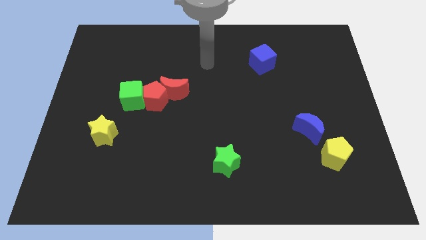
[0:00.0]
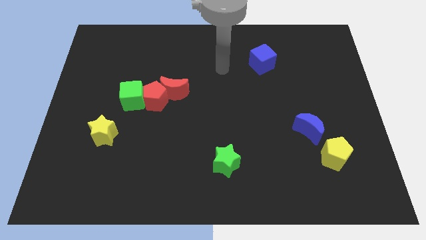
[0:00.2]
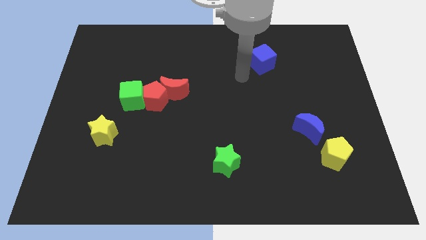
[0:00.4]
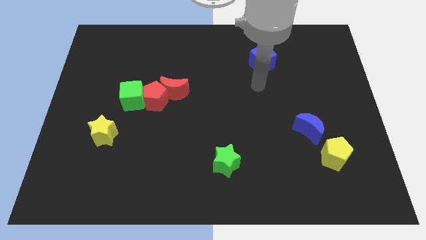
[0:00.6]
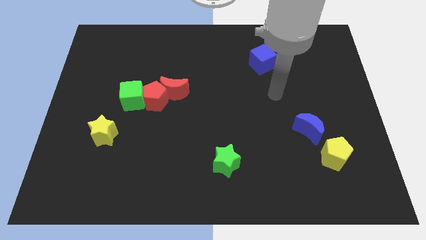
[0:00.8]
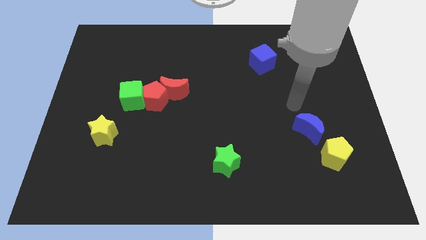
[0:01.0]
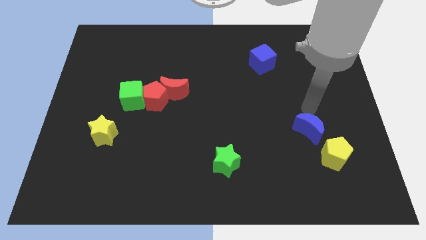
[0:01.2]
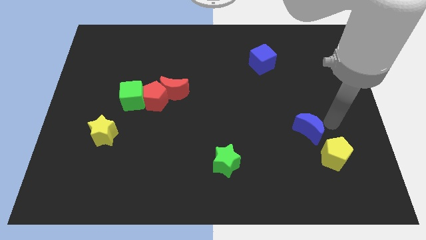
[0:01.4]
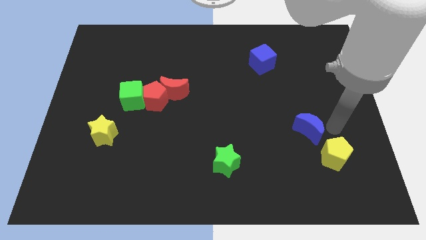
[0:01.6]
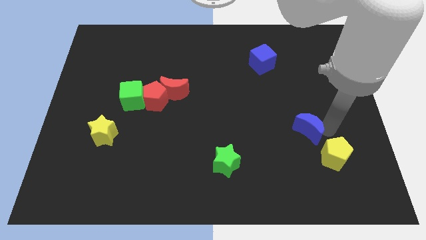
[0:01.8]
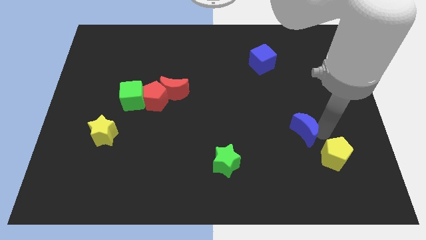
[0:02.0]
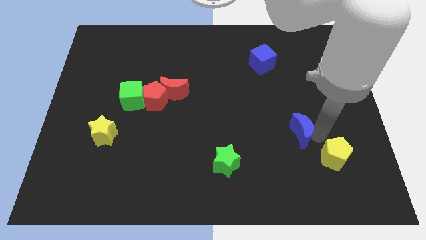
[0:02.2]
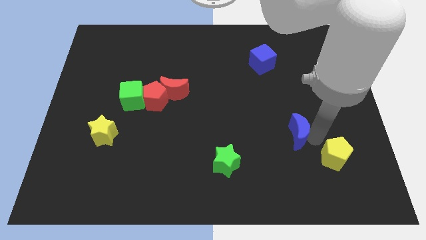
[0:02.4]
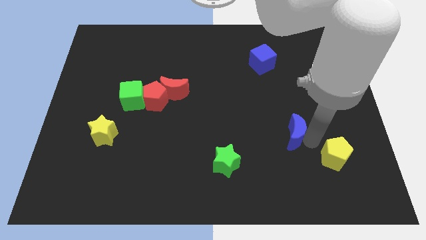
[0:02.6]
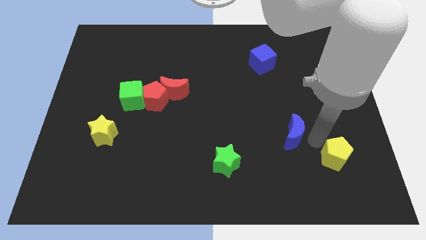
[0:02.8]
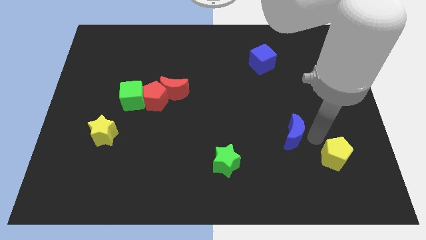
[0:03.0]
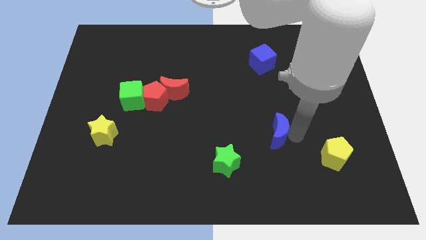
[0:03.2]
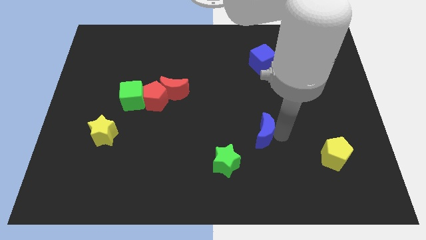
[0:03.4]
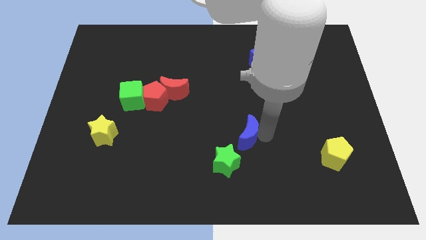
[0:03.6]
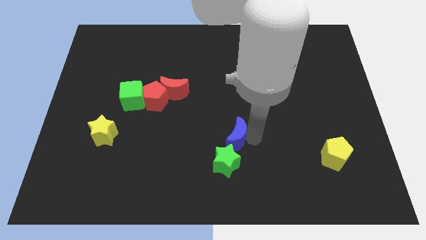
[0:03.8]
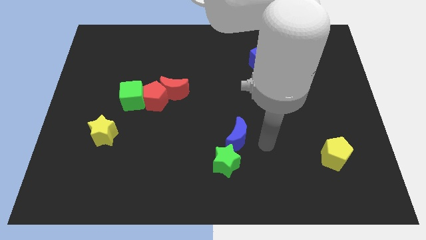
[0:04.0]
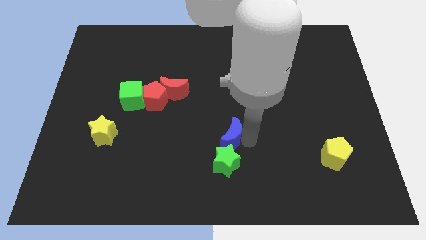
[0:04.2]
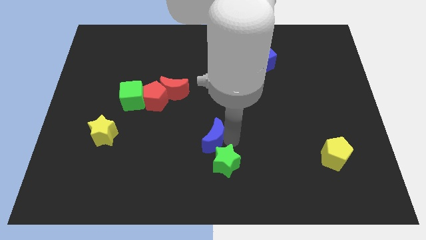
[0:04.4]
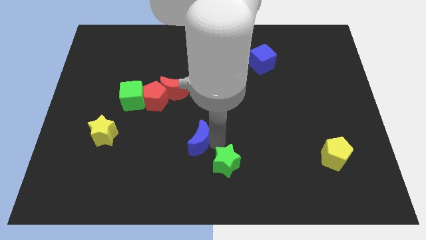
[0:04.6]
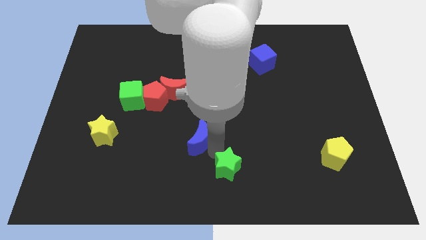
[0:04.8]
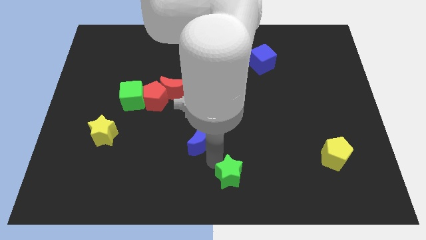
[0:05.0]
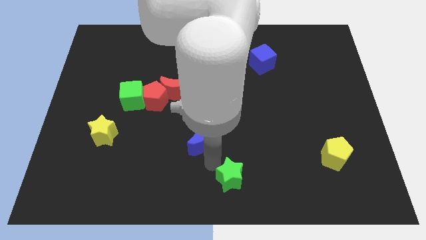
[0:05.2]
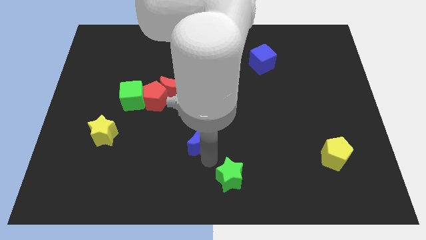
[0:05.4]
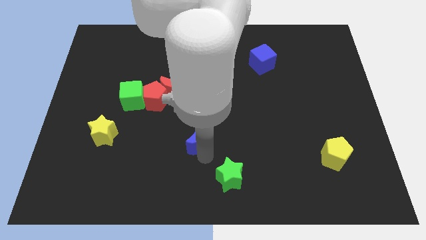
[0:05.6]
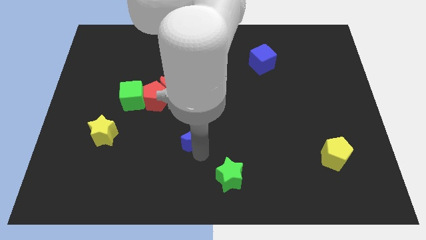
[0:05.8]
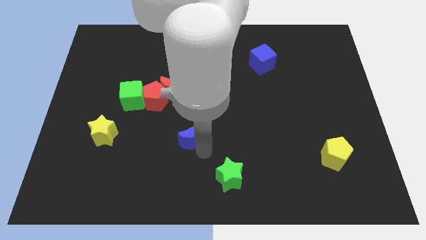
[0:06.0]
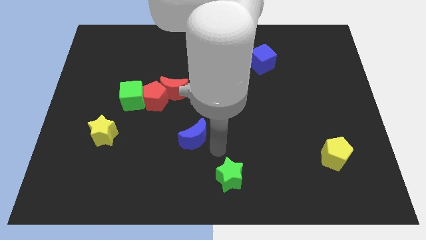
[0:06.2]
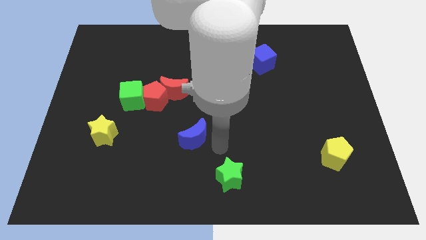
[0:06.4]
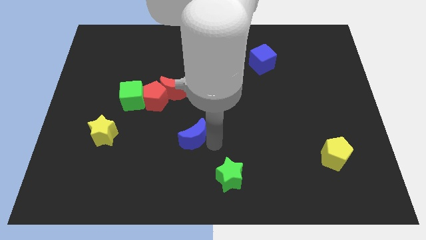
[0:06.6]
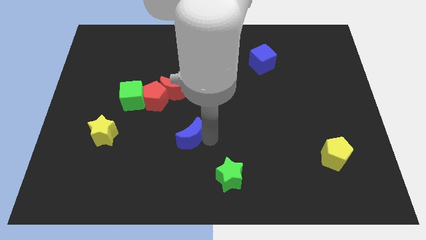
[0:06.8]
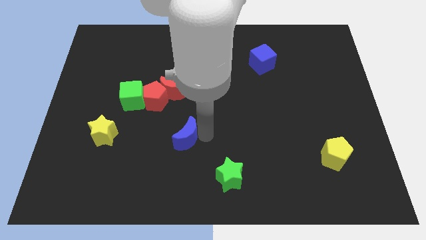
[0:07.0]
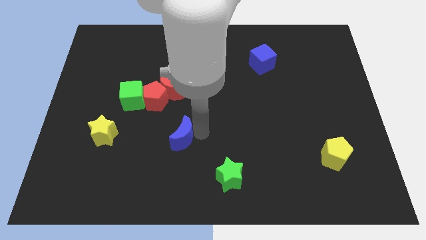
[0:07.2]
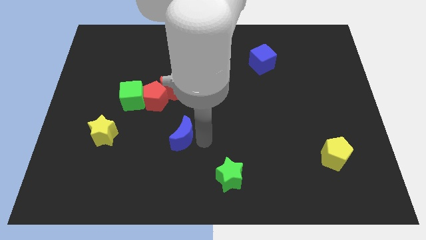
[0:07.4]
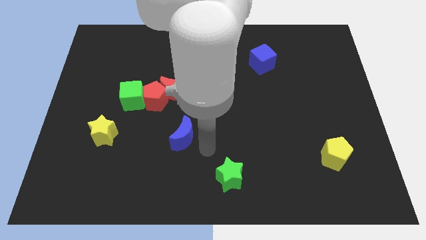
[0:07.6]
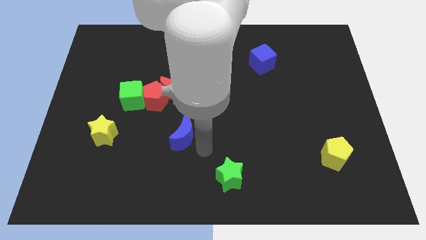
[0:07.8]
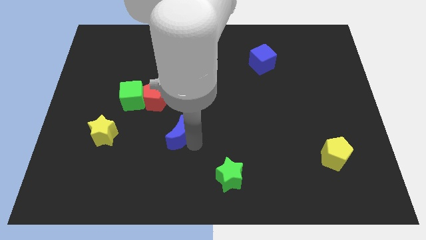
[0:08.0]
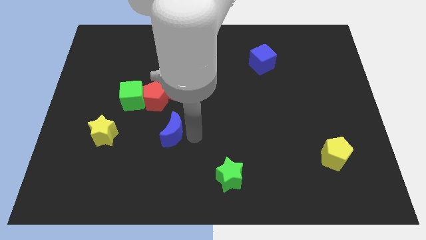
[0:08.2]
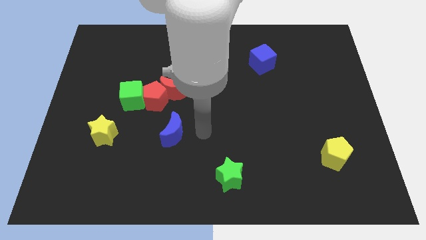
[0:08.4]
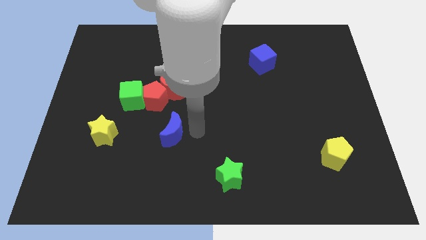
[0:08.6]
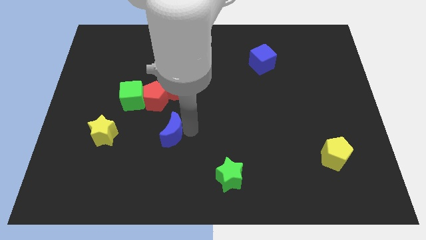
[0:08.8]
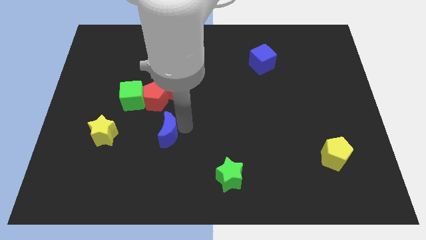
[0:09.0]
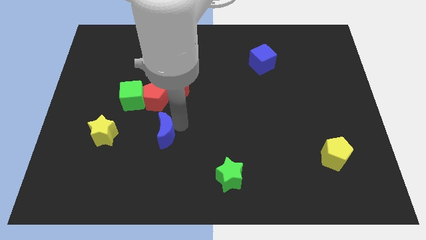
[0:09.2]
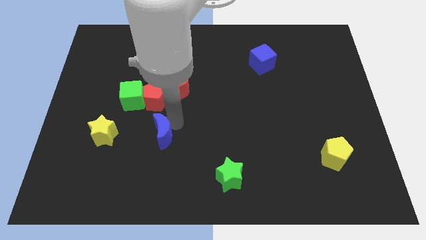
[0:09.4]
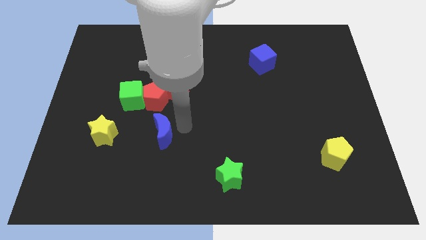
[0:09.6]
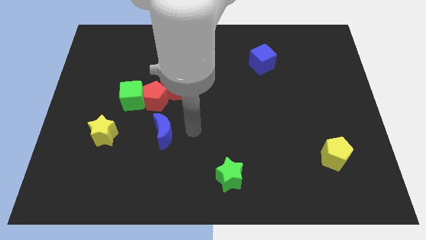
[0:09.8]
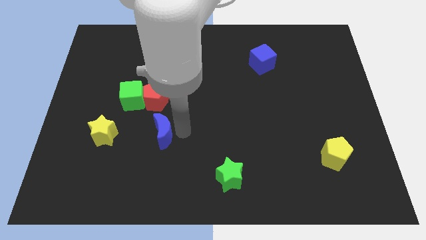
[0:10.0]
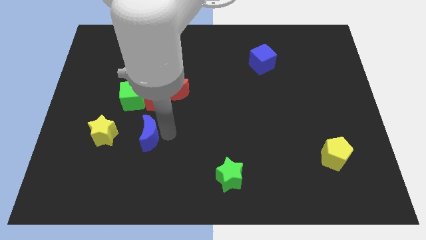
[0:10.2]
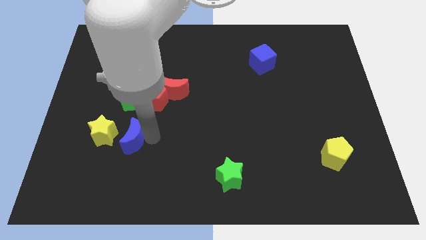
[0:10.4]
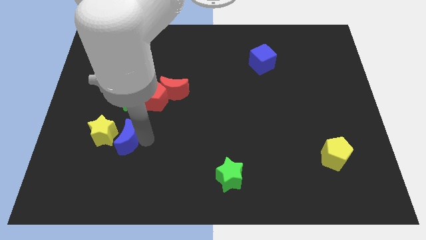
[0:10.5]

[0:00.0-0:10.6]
push the blue moon to the yellow star

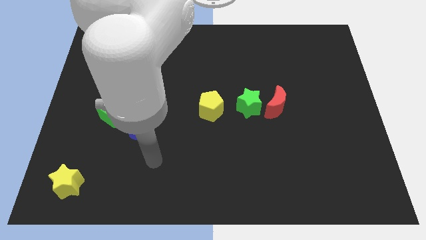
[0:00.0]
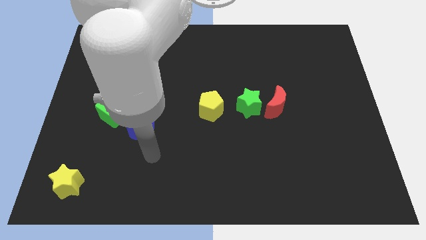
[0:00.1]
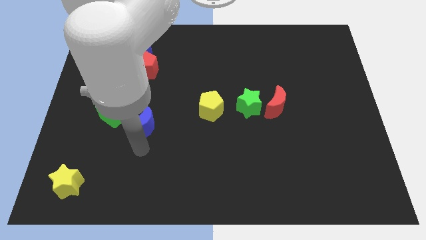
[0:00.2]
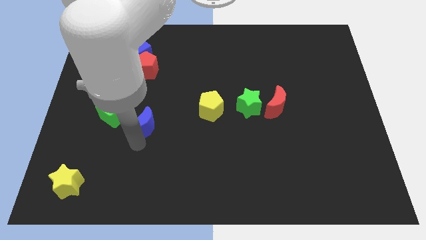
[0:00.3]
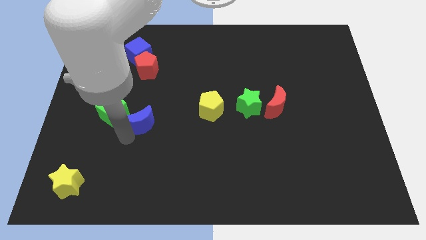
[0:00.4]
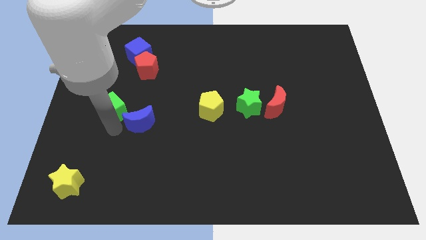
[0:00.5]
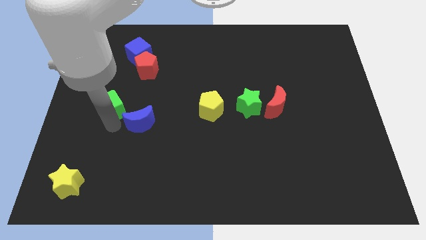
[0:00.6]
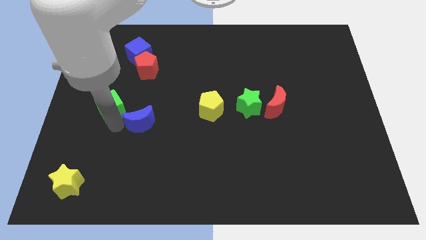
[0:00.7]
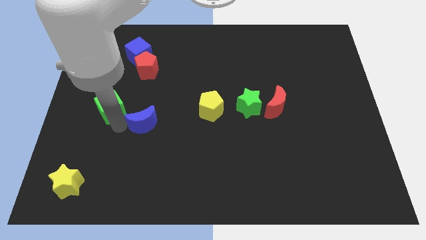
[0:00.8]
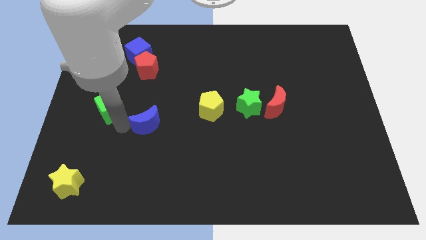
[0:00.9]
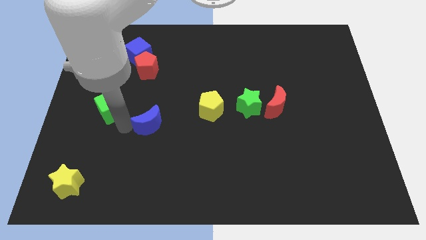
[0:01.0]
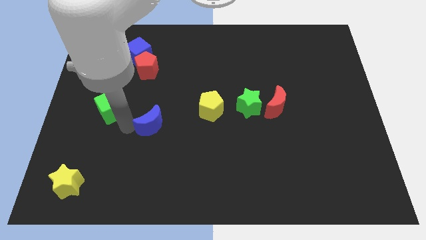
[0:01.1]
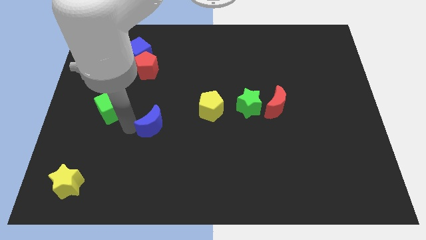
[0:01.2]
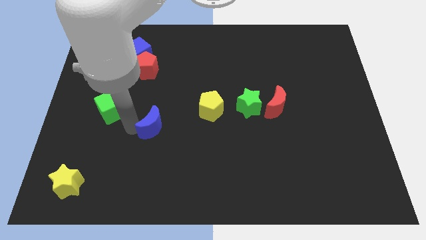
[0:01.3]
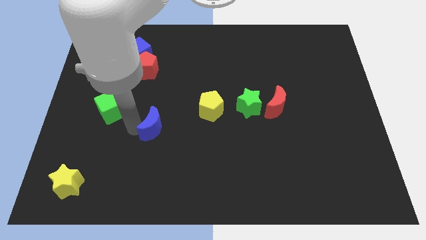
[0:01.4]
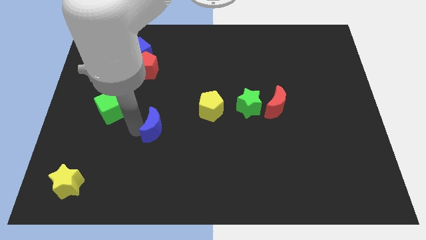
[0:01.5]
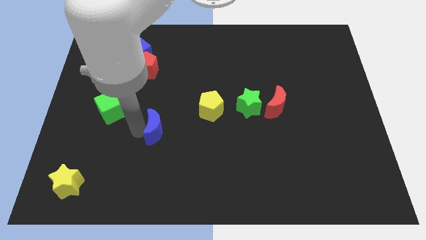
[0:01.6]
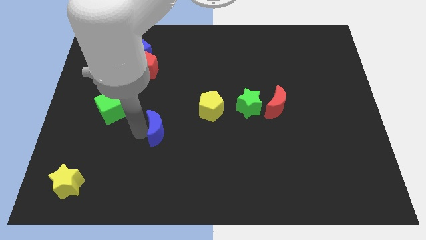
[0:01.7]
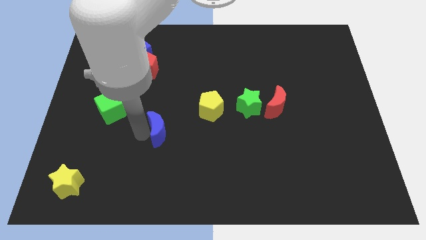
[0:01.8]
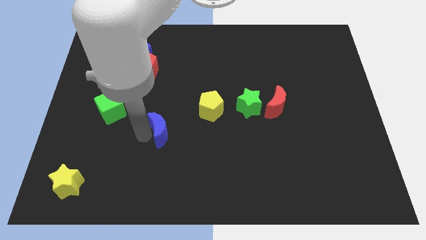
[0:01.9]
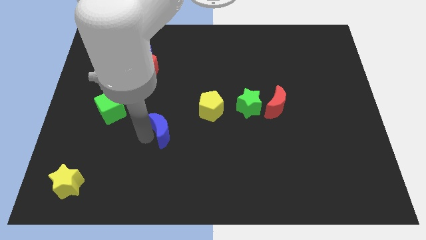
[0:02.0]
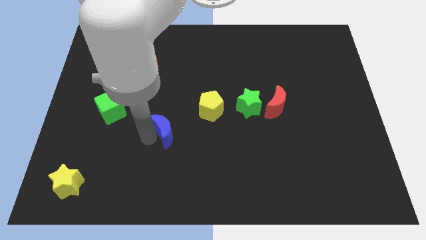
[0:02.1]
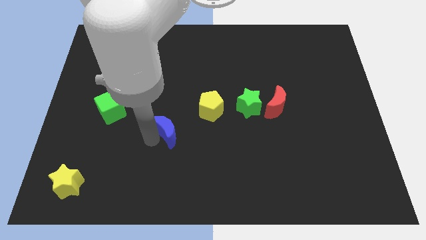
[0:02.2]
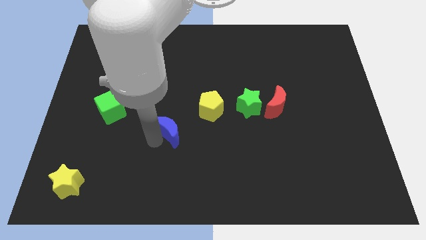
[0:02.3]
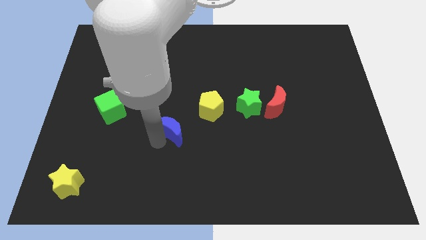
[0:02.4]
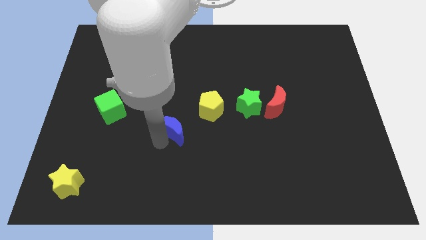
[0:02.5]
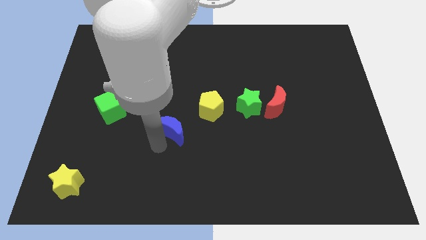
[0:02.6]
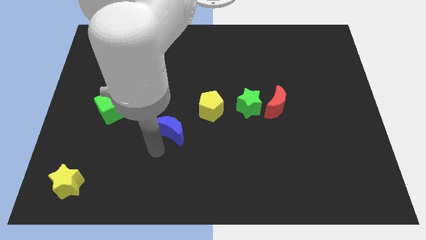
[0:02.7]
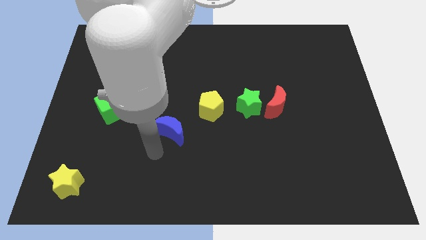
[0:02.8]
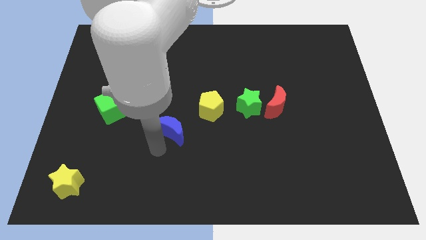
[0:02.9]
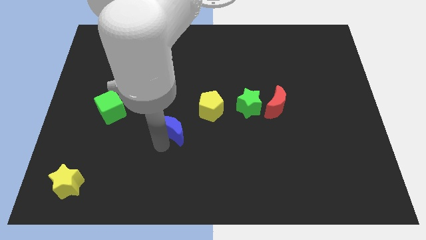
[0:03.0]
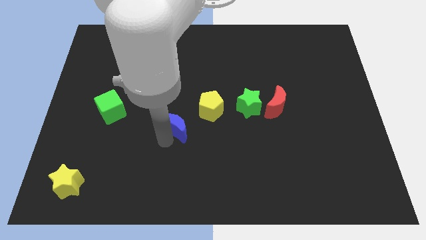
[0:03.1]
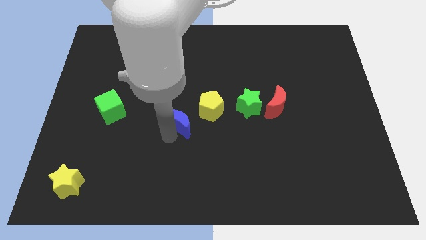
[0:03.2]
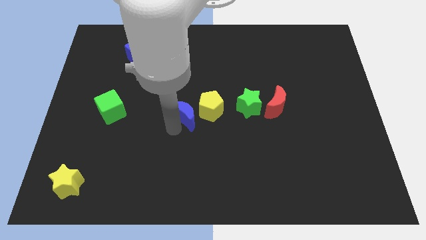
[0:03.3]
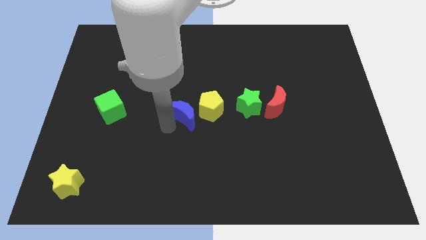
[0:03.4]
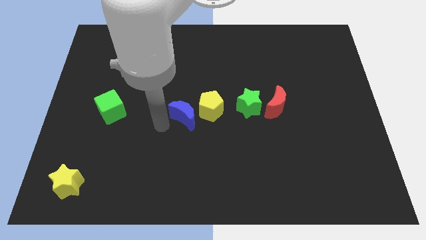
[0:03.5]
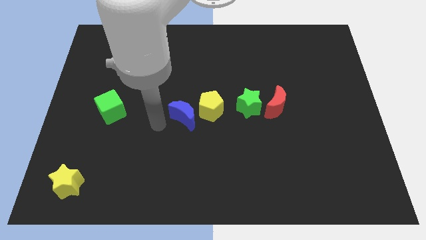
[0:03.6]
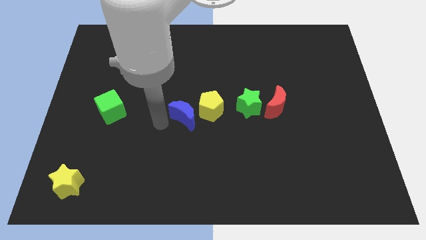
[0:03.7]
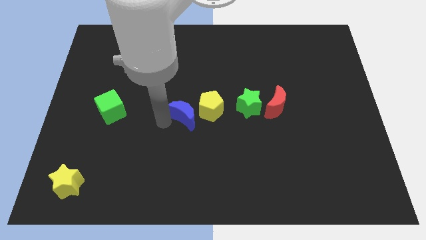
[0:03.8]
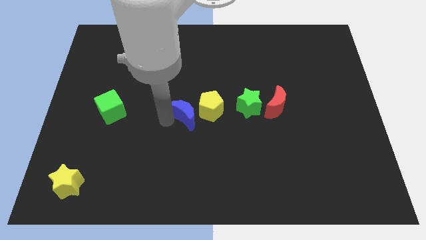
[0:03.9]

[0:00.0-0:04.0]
put the blue moon towards the yellow pentagon
